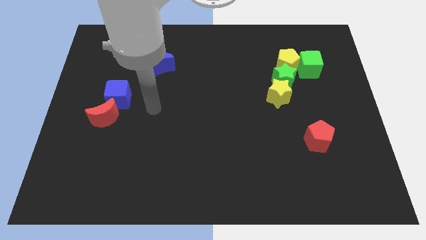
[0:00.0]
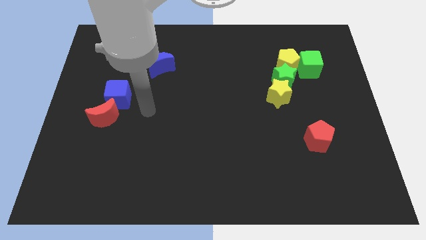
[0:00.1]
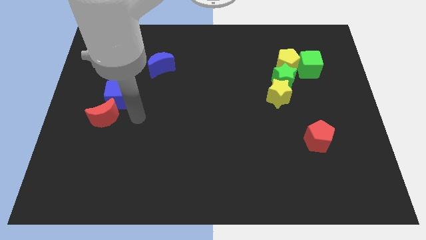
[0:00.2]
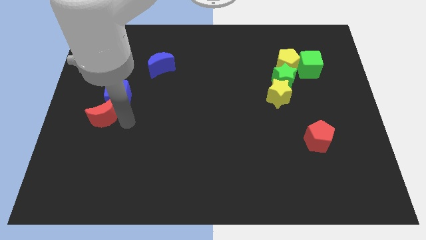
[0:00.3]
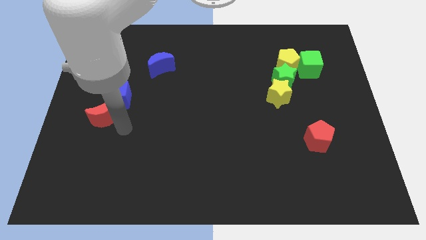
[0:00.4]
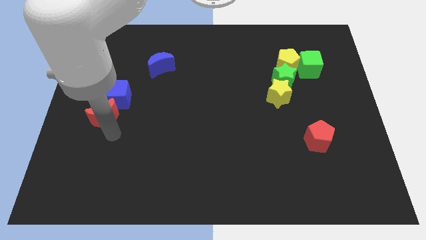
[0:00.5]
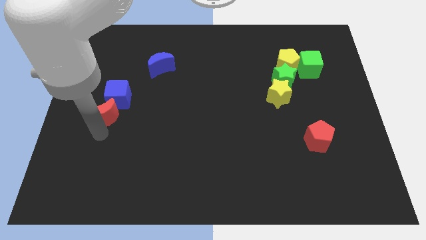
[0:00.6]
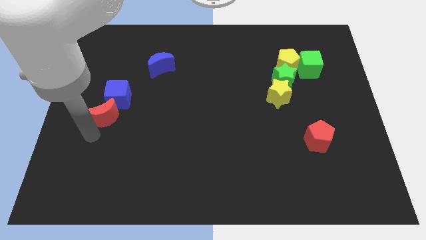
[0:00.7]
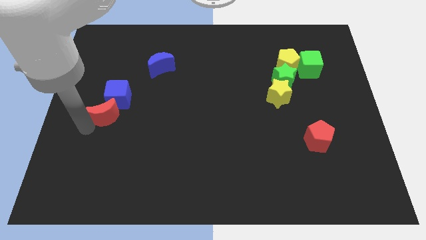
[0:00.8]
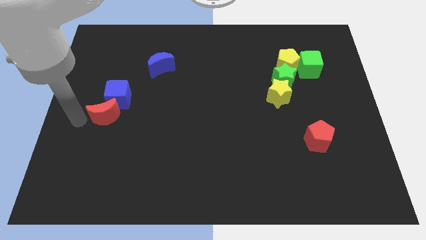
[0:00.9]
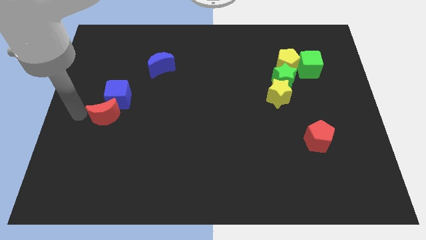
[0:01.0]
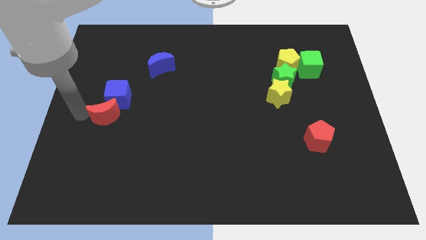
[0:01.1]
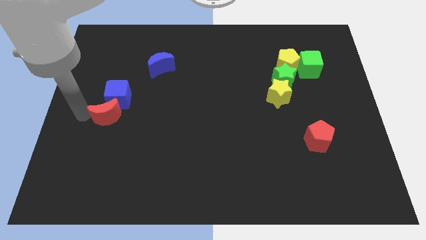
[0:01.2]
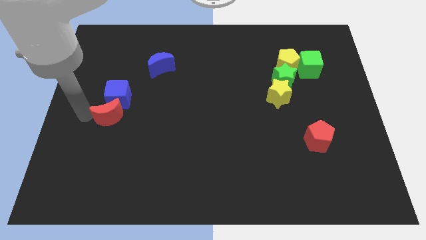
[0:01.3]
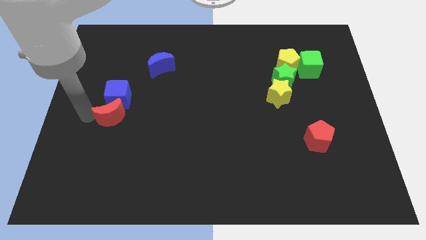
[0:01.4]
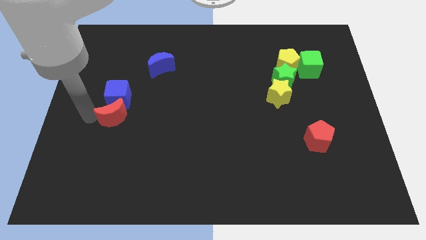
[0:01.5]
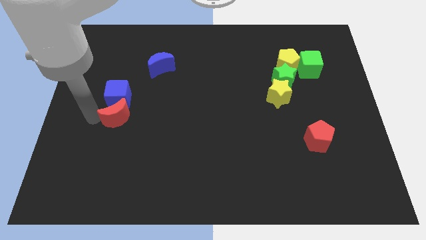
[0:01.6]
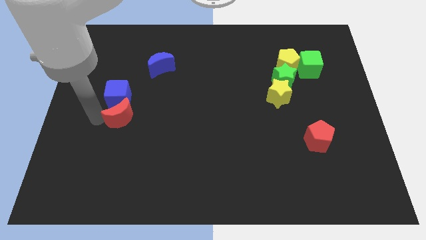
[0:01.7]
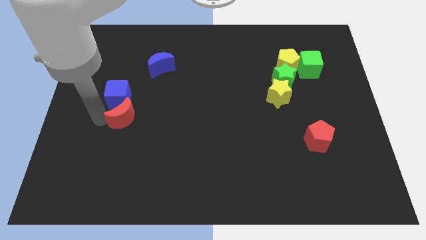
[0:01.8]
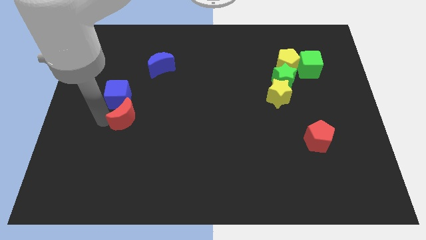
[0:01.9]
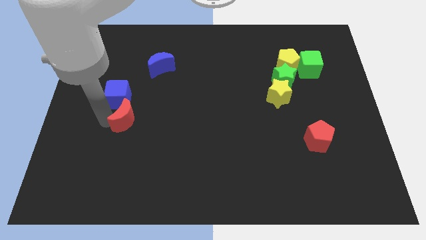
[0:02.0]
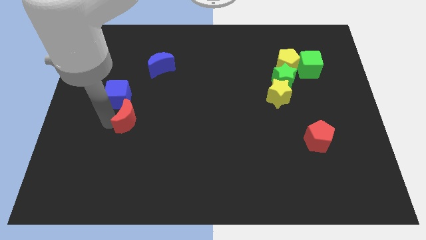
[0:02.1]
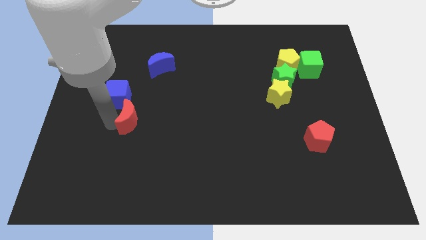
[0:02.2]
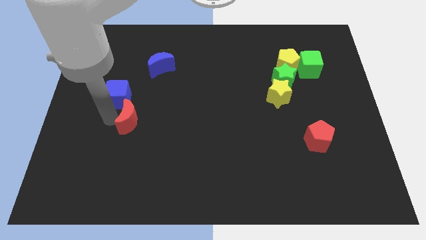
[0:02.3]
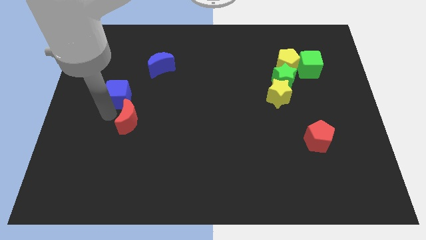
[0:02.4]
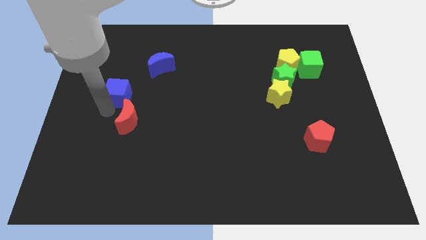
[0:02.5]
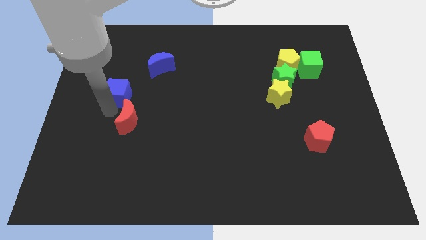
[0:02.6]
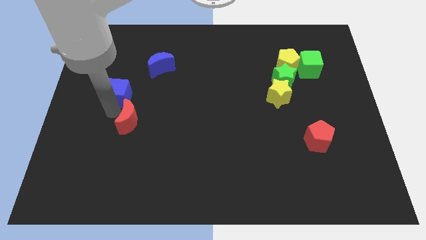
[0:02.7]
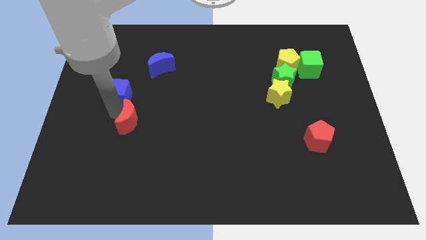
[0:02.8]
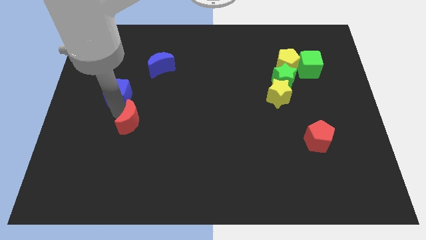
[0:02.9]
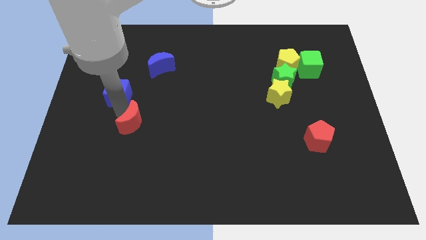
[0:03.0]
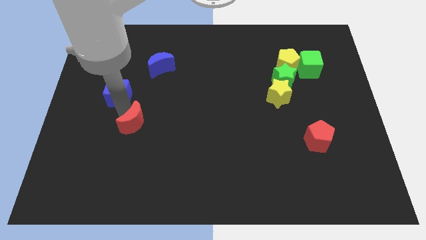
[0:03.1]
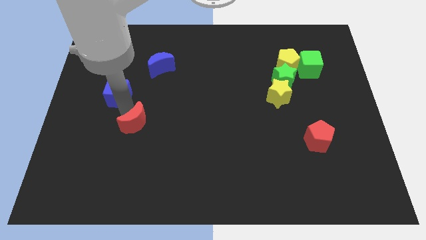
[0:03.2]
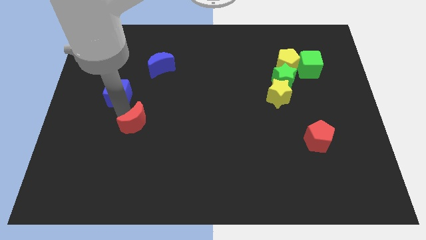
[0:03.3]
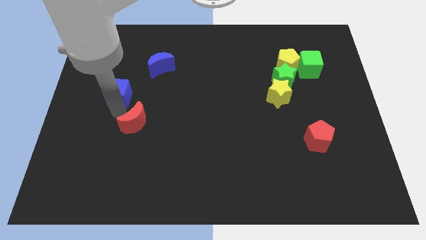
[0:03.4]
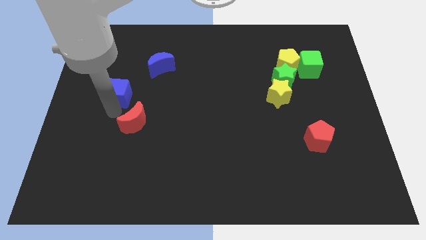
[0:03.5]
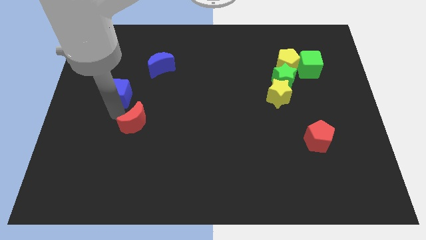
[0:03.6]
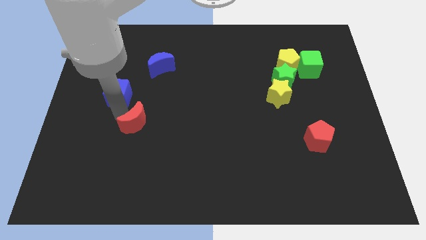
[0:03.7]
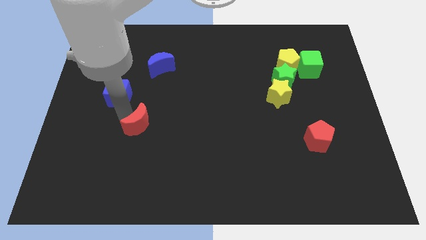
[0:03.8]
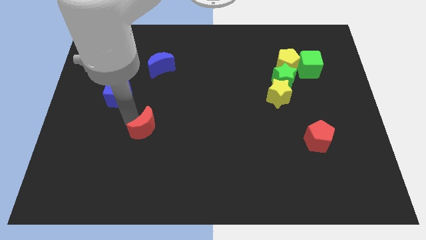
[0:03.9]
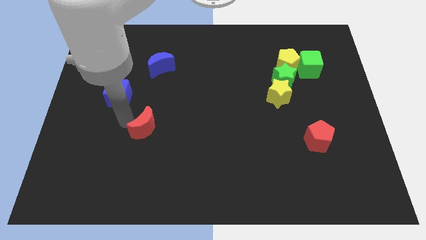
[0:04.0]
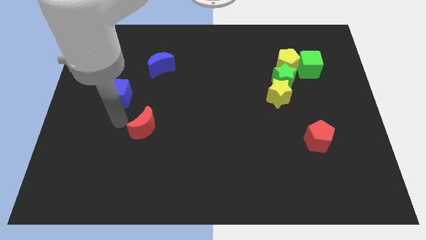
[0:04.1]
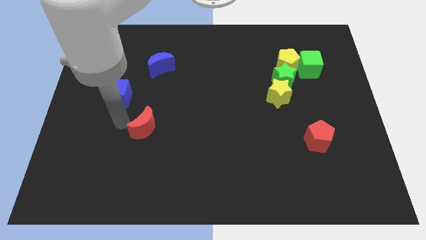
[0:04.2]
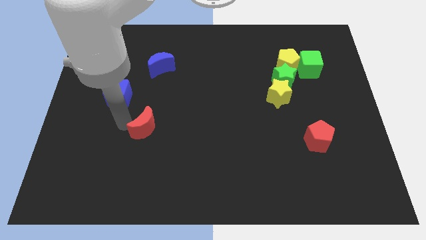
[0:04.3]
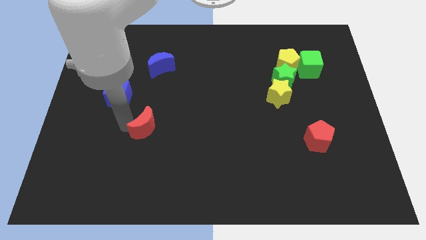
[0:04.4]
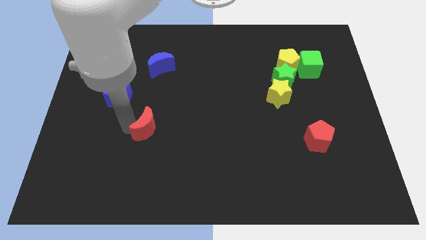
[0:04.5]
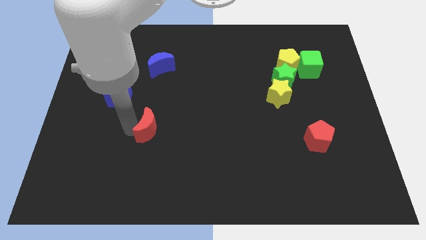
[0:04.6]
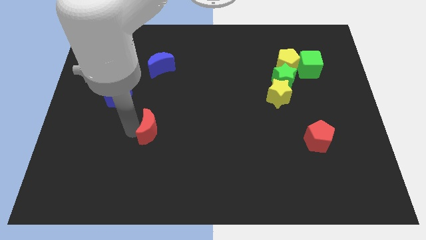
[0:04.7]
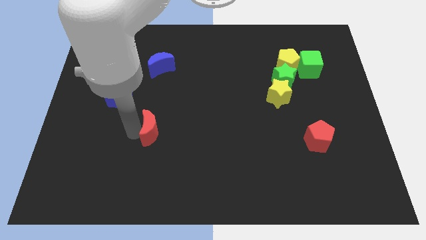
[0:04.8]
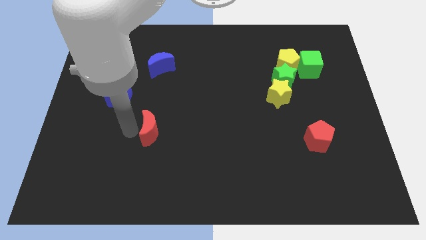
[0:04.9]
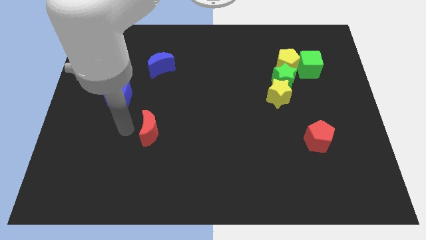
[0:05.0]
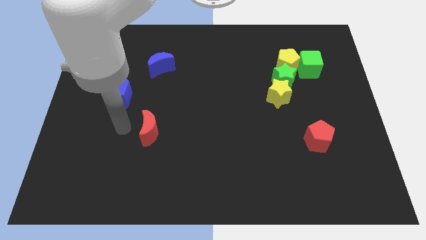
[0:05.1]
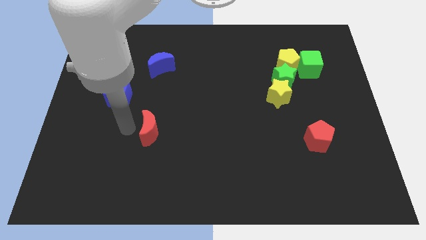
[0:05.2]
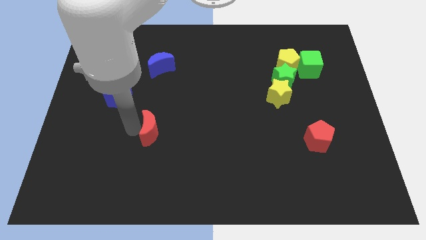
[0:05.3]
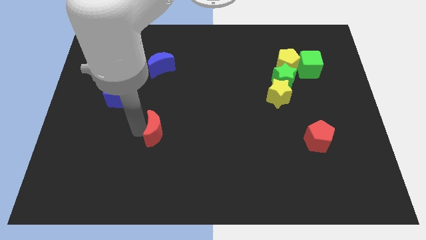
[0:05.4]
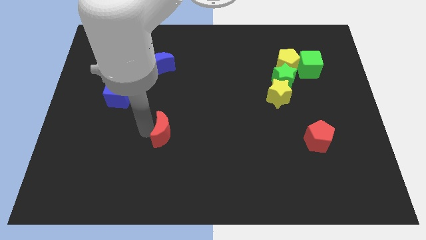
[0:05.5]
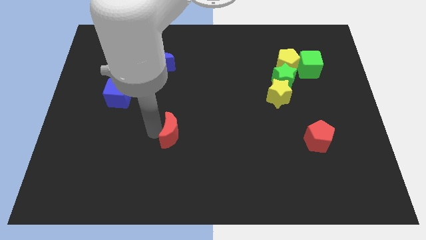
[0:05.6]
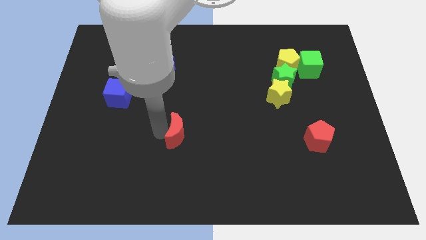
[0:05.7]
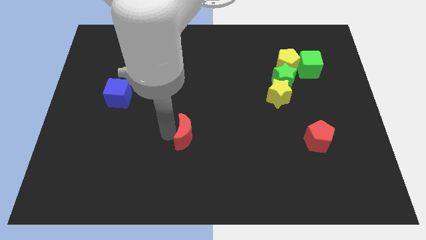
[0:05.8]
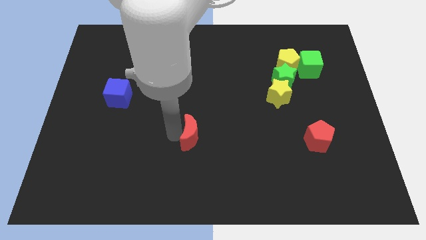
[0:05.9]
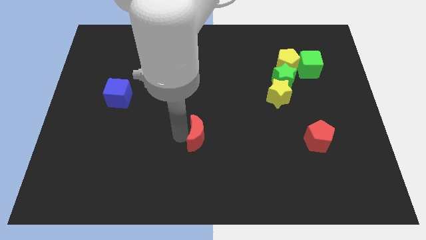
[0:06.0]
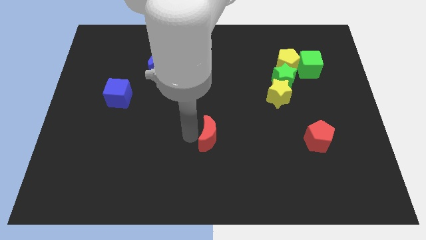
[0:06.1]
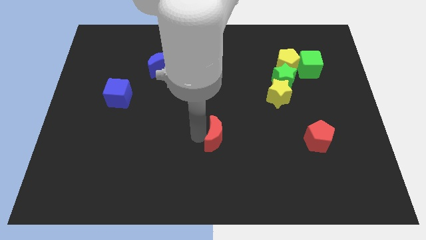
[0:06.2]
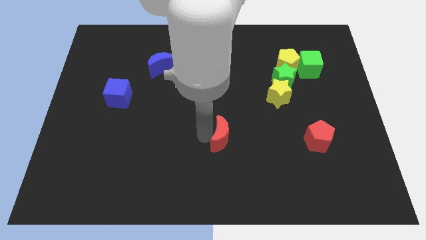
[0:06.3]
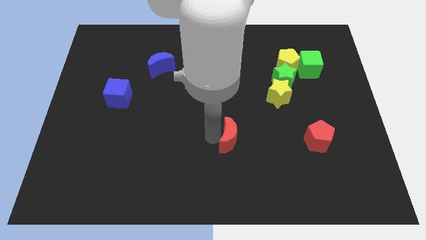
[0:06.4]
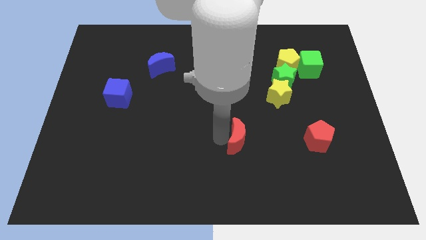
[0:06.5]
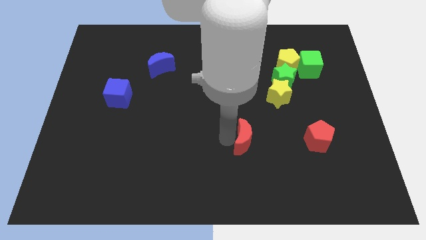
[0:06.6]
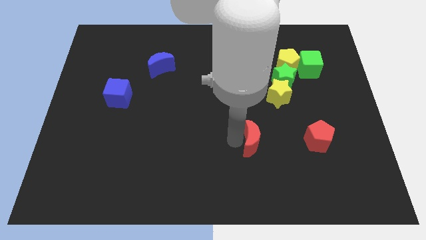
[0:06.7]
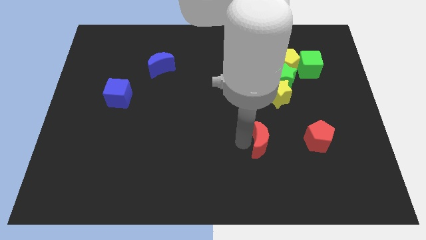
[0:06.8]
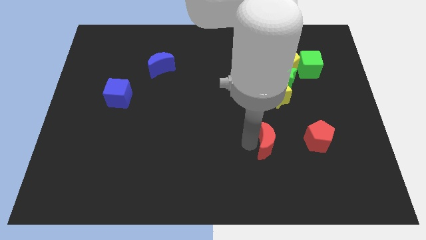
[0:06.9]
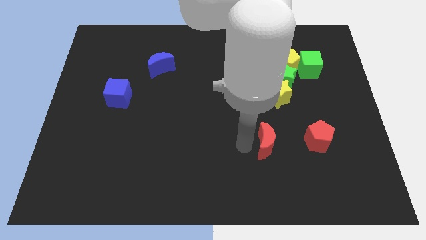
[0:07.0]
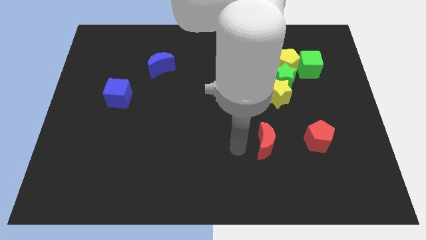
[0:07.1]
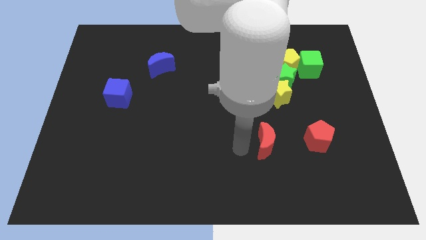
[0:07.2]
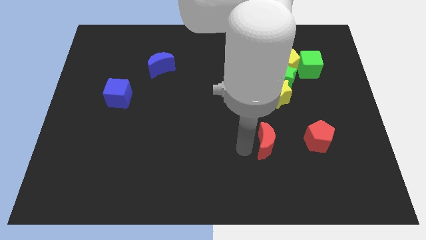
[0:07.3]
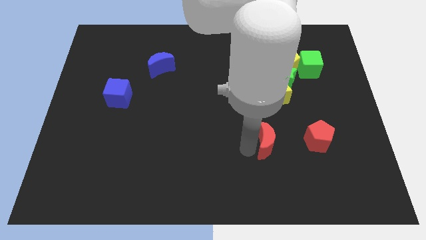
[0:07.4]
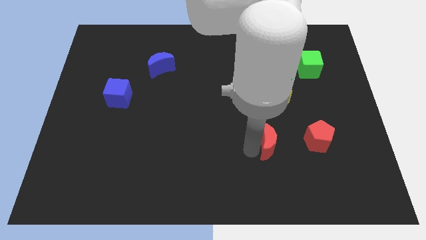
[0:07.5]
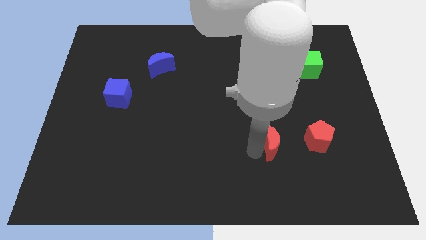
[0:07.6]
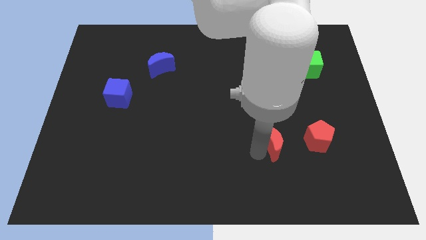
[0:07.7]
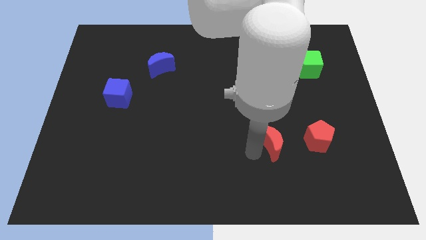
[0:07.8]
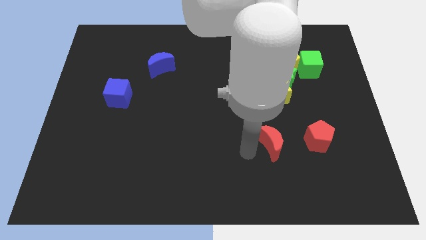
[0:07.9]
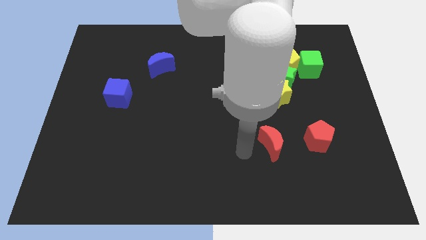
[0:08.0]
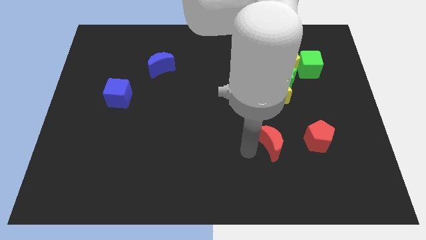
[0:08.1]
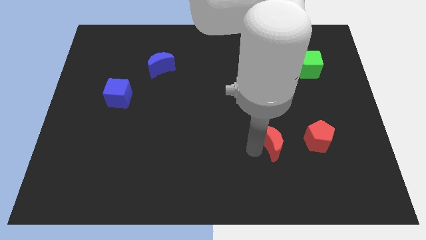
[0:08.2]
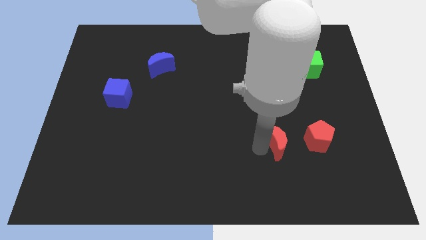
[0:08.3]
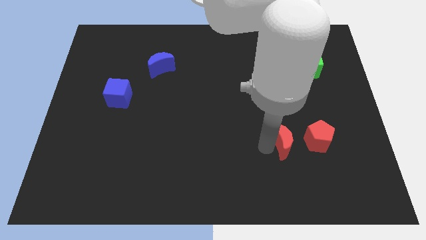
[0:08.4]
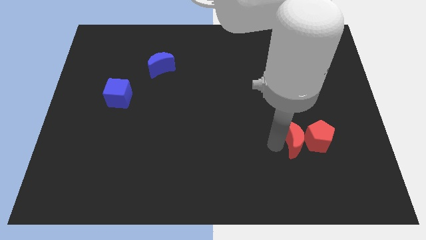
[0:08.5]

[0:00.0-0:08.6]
slide the red moon next to the red pentagon
